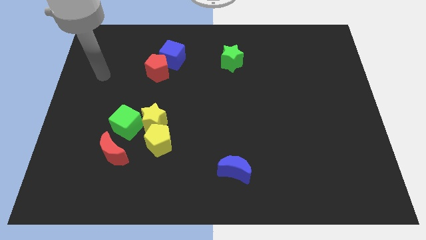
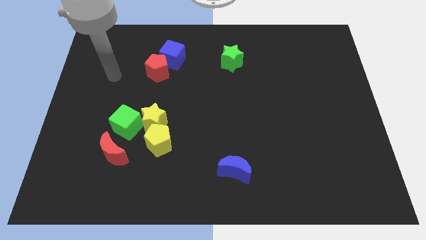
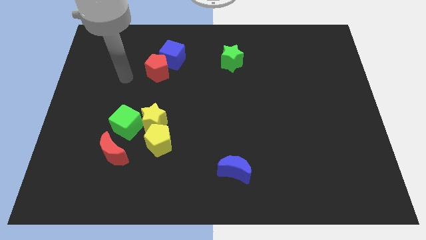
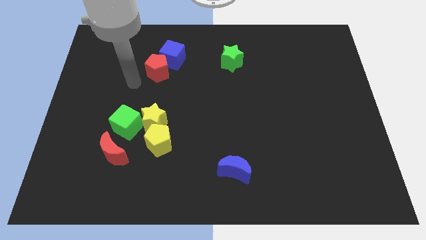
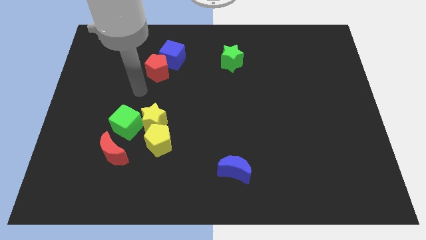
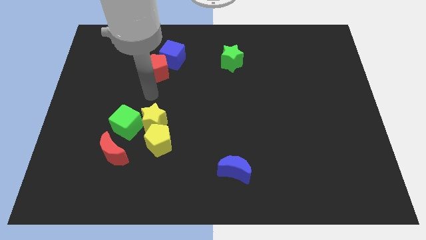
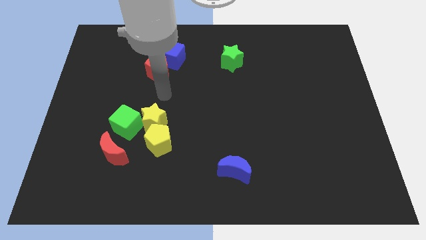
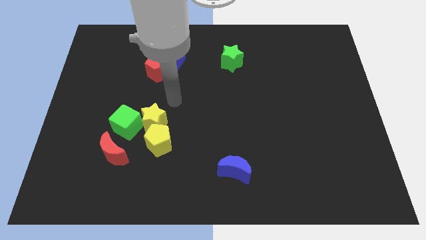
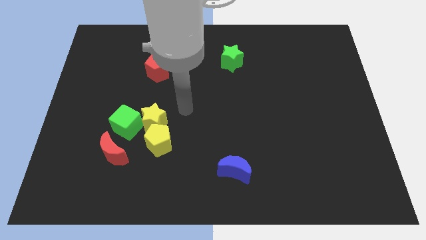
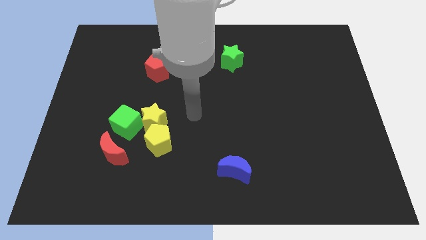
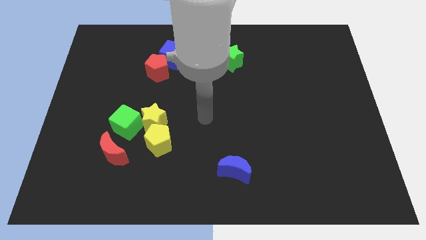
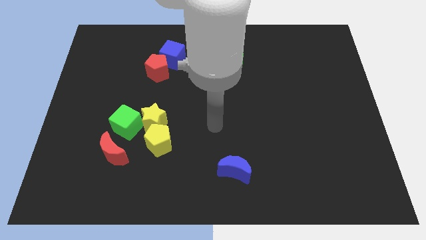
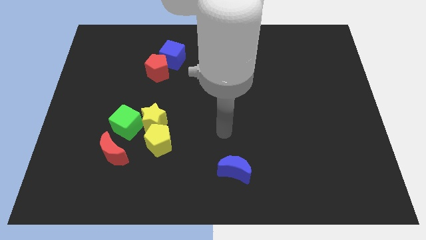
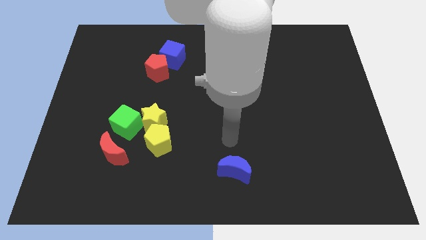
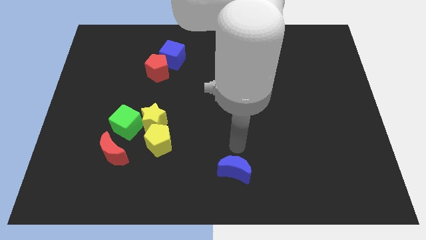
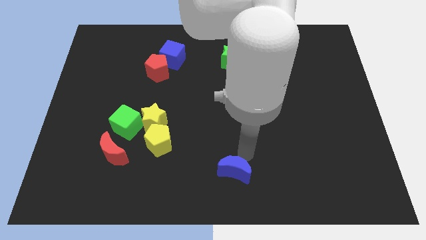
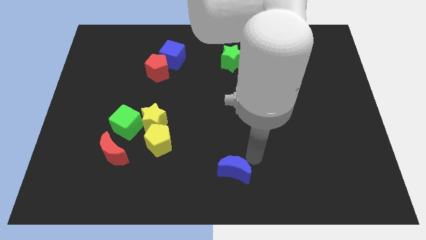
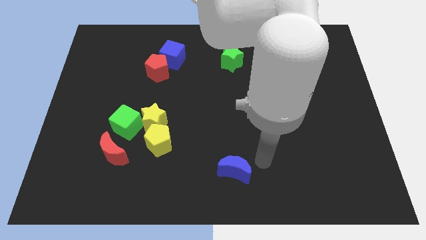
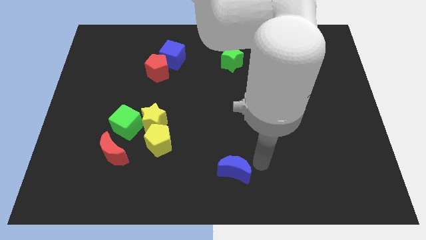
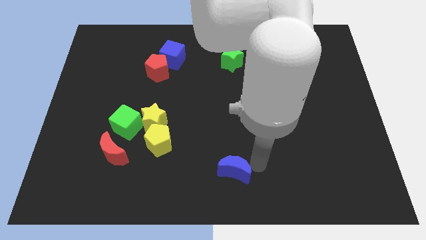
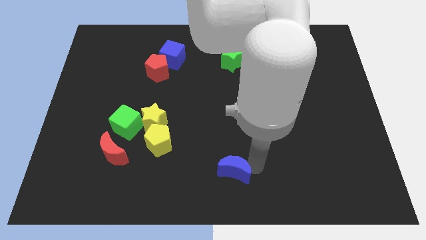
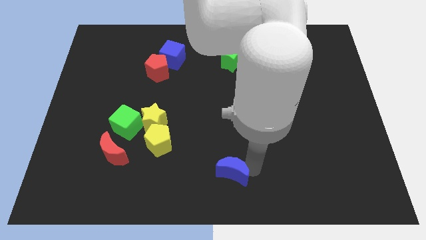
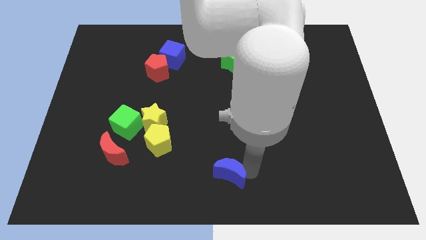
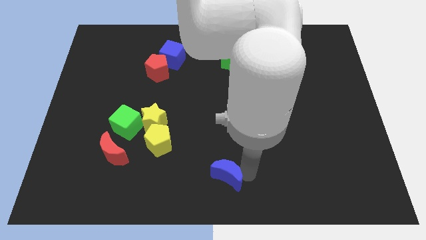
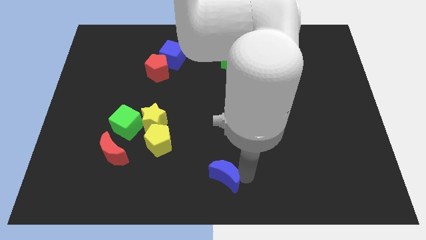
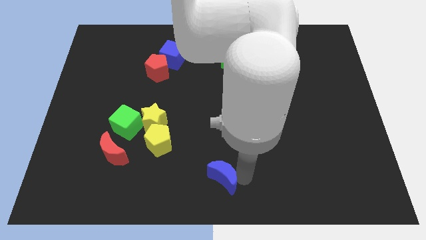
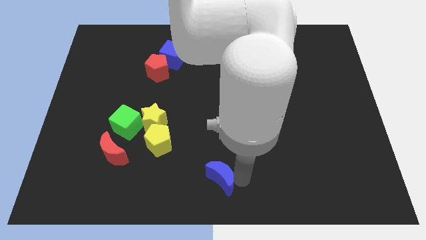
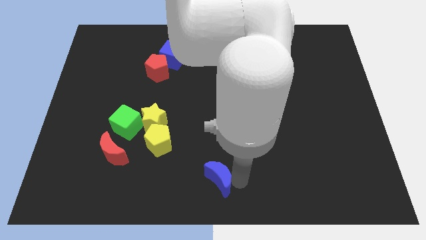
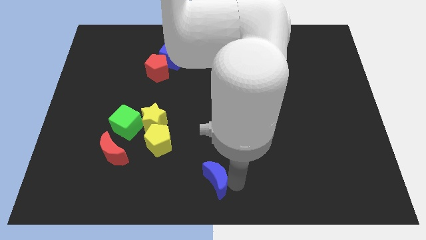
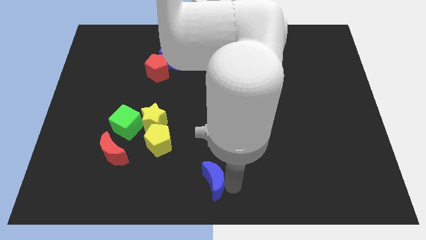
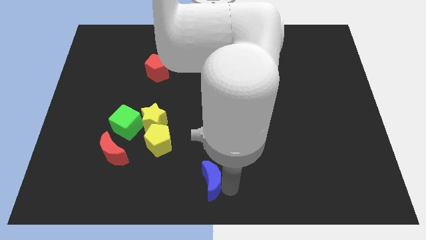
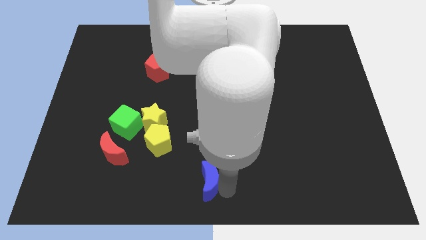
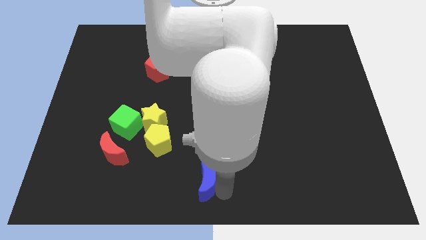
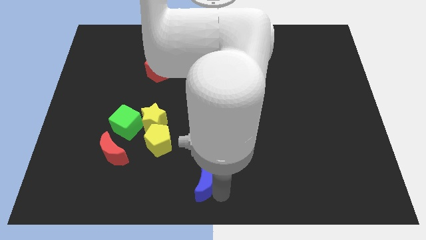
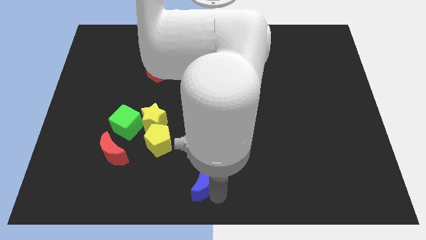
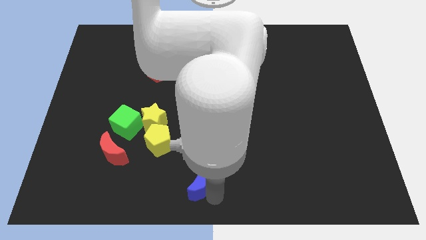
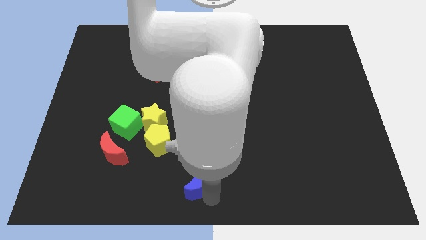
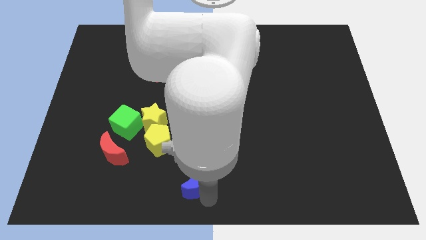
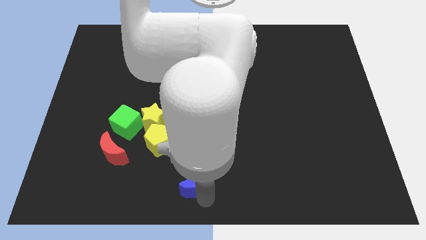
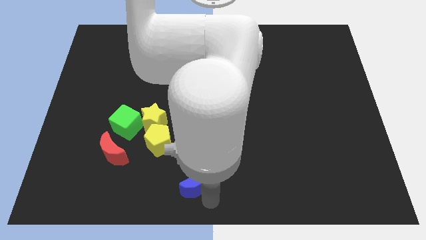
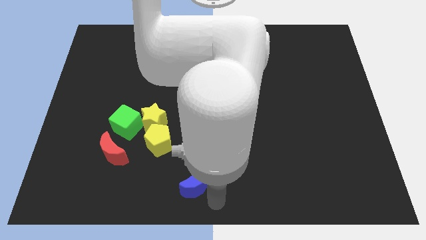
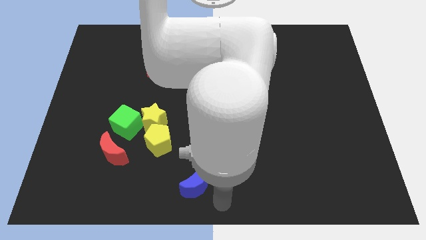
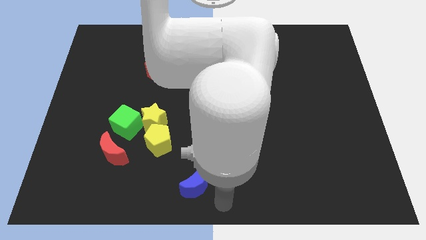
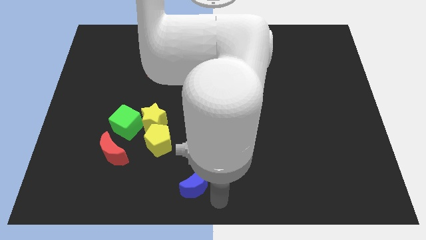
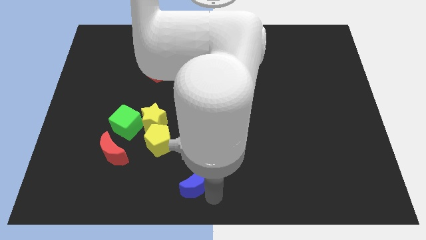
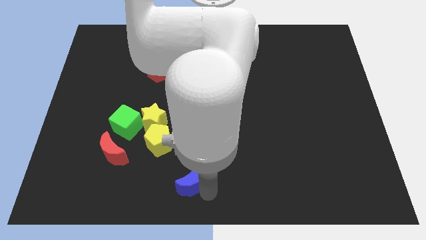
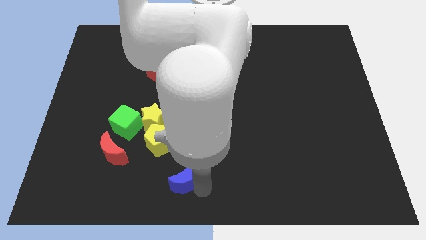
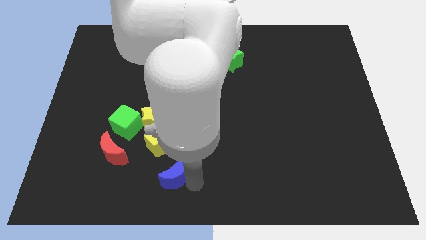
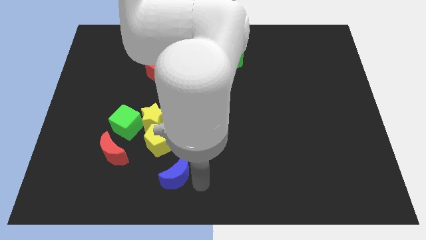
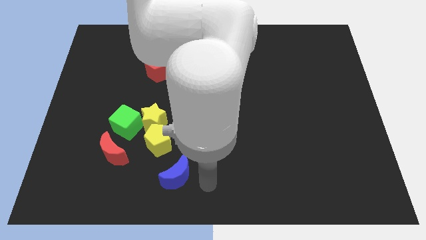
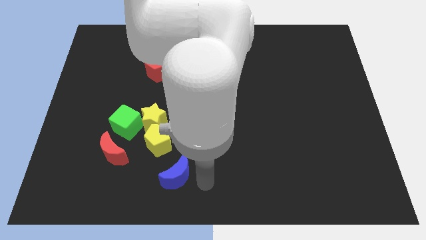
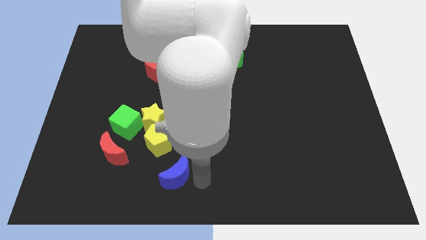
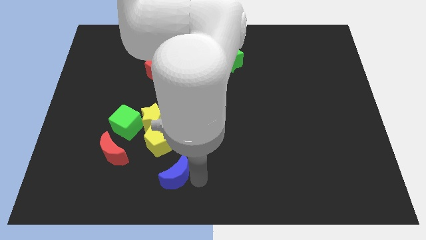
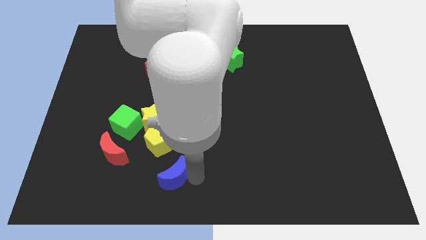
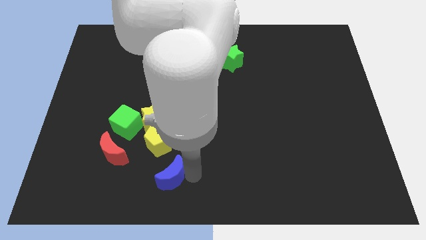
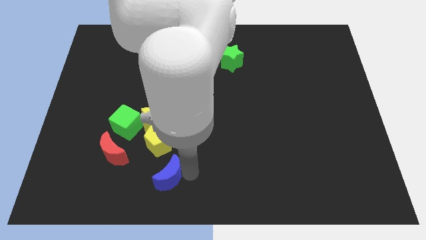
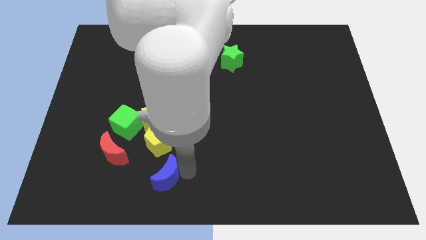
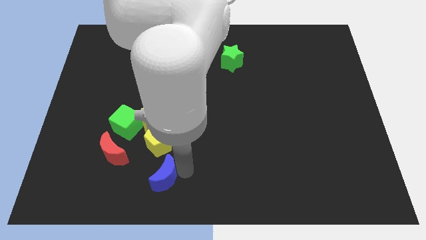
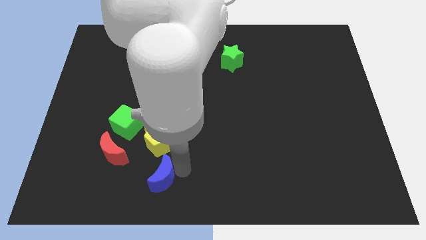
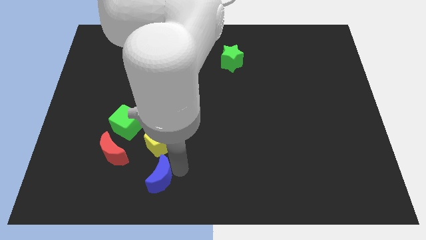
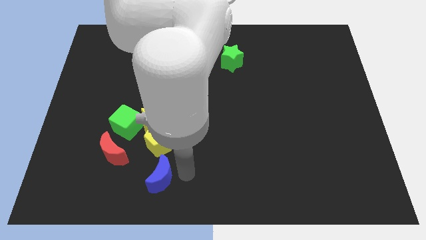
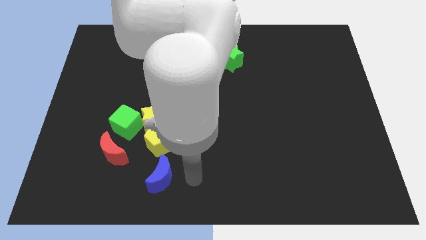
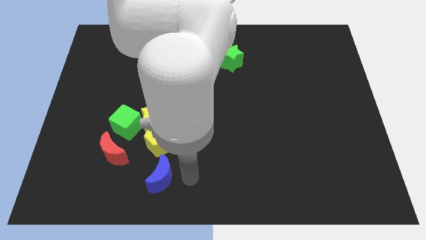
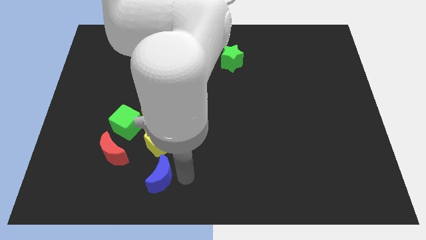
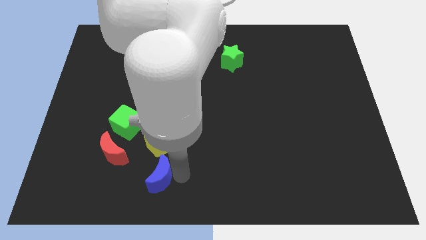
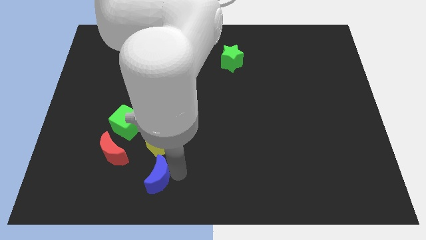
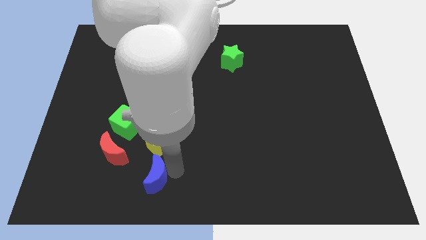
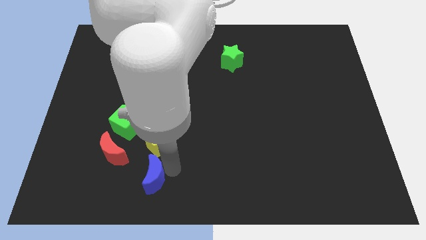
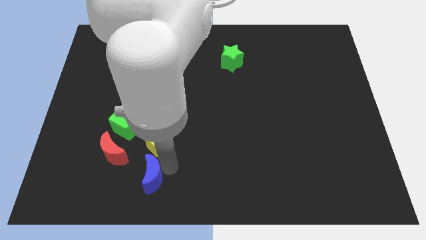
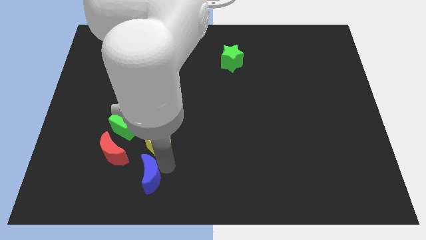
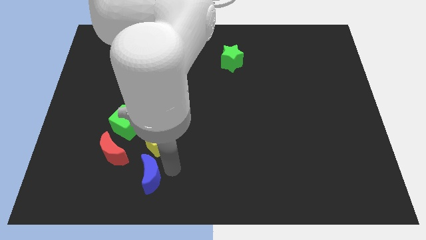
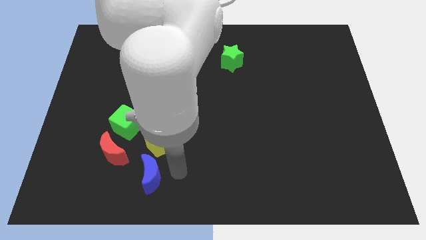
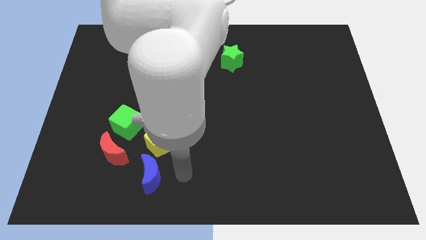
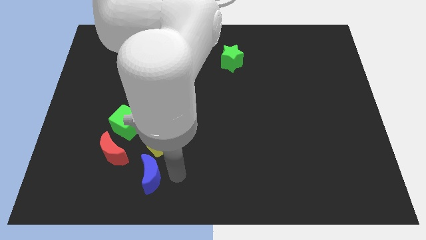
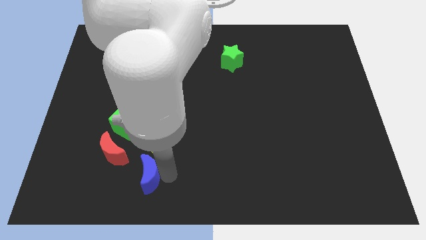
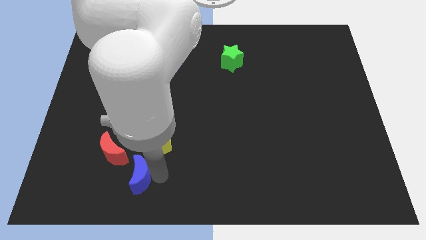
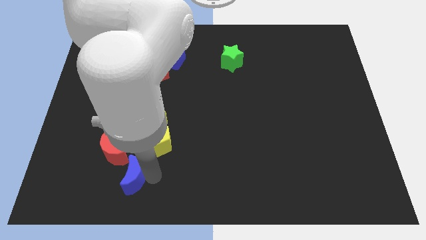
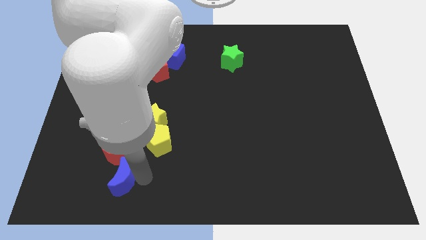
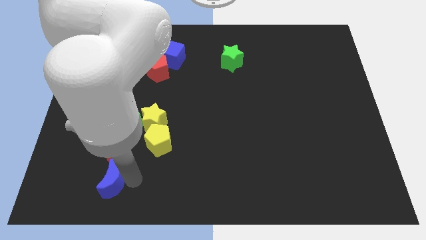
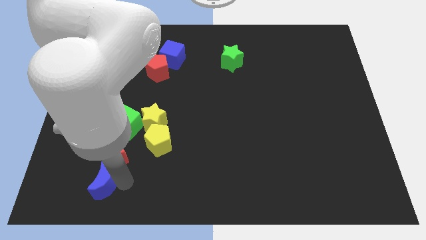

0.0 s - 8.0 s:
slide the blue moon to the bottom left of the red moon
